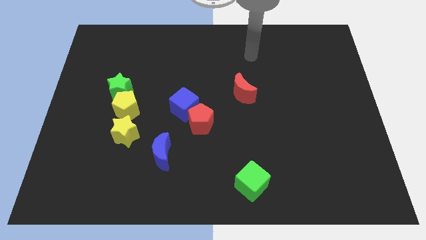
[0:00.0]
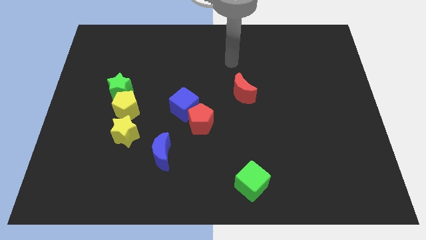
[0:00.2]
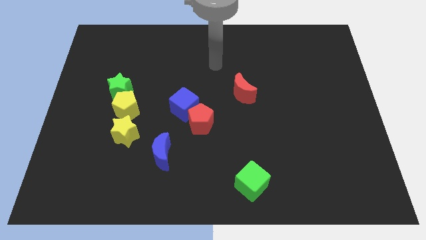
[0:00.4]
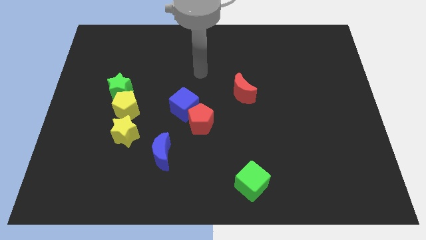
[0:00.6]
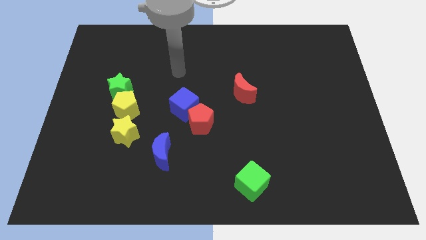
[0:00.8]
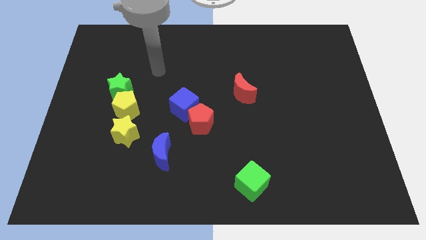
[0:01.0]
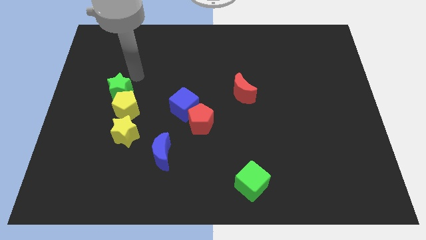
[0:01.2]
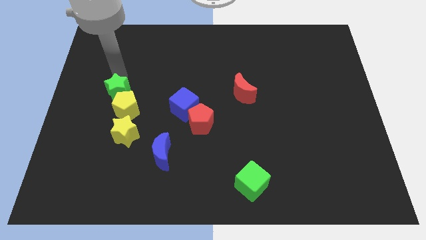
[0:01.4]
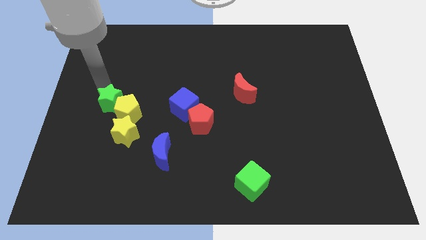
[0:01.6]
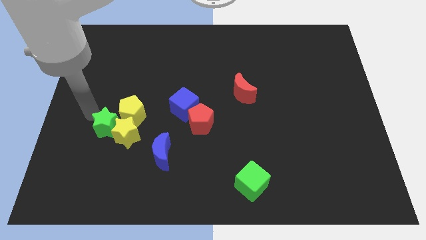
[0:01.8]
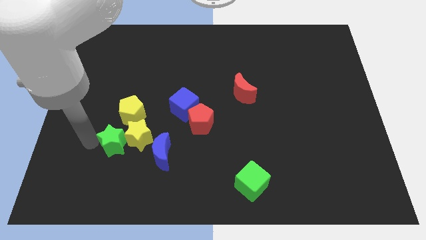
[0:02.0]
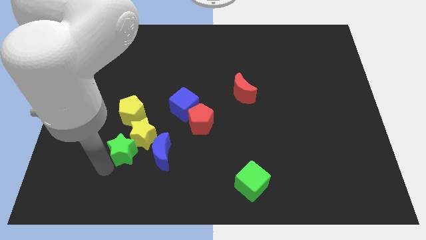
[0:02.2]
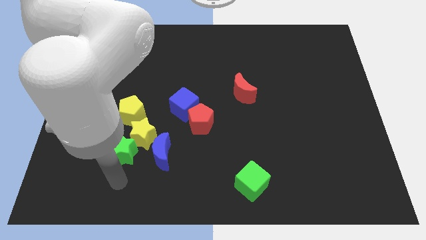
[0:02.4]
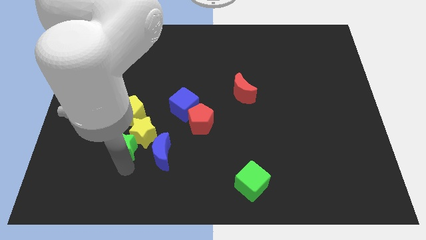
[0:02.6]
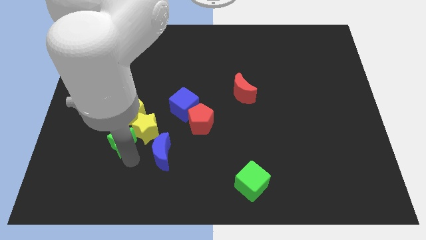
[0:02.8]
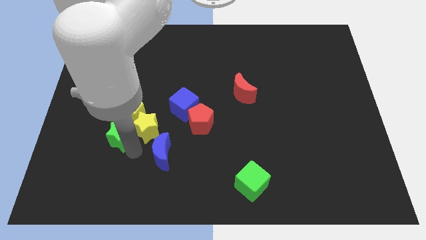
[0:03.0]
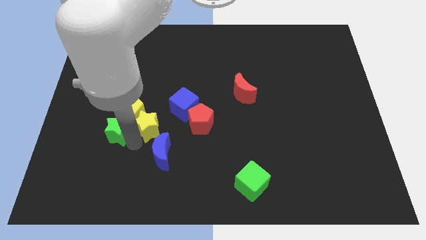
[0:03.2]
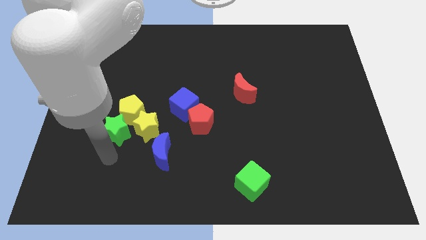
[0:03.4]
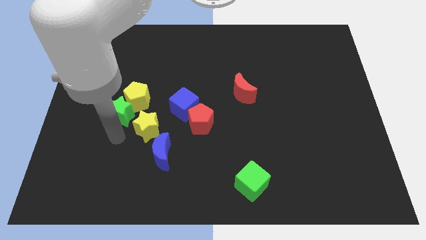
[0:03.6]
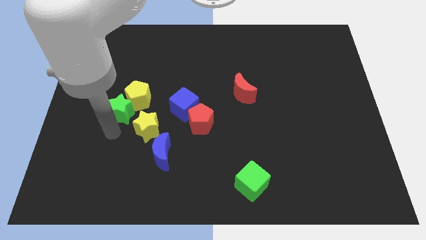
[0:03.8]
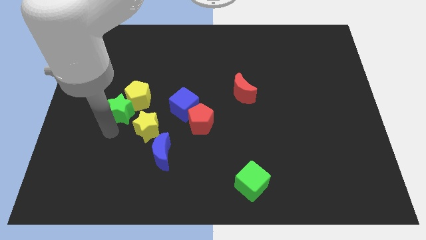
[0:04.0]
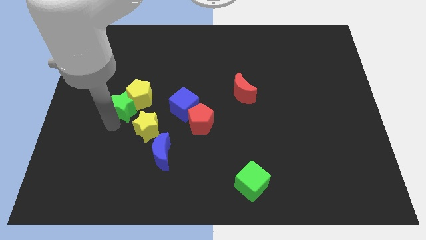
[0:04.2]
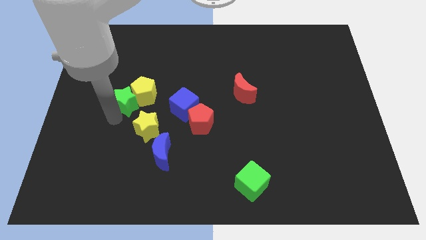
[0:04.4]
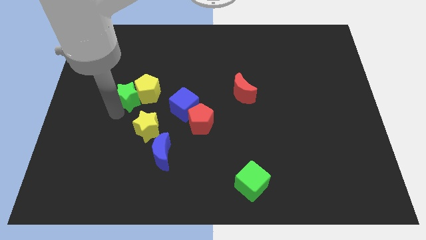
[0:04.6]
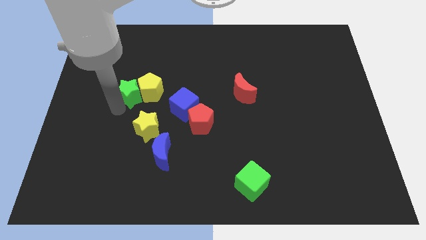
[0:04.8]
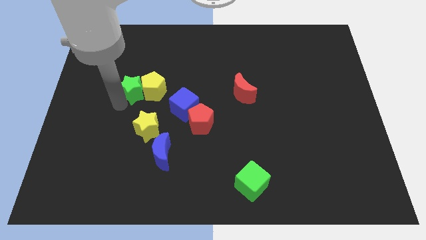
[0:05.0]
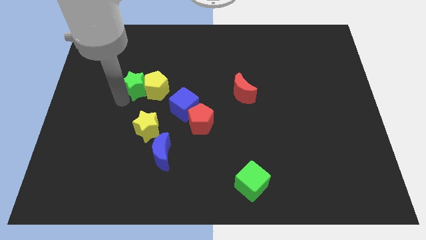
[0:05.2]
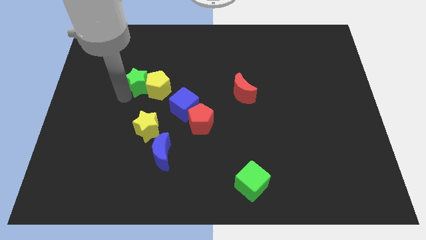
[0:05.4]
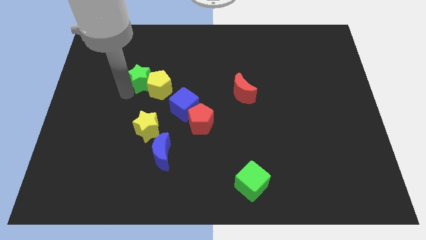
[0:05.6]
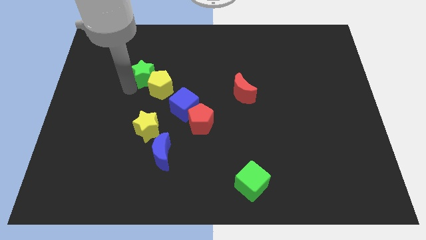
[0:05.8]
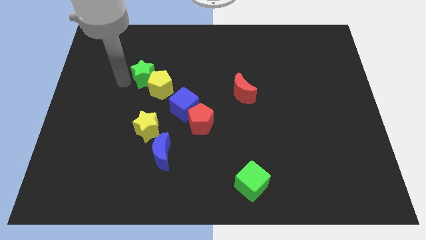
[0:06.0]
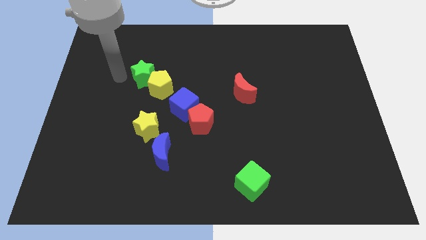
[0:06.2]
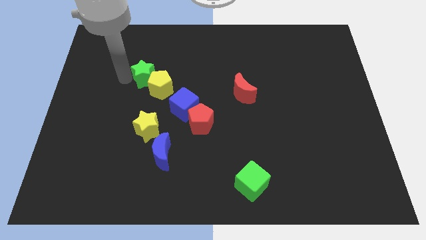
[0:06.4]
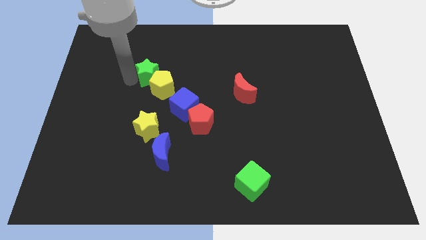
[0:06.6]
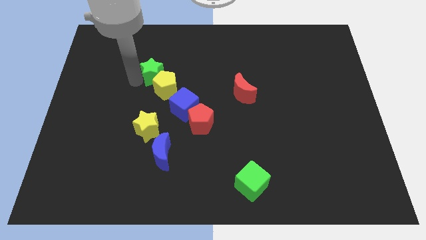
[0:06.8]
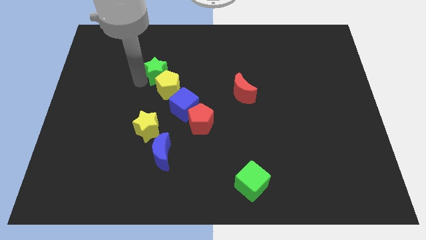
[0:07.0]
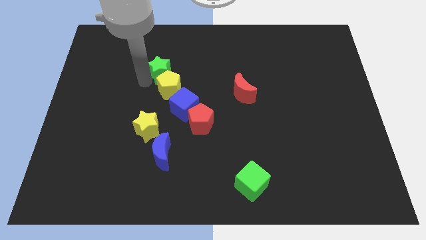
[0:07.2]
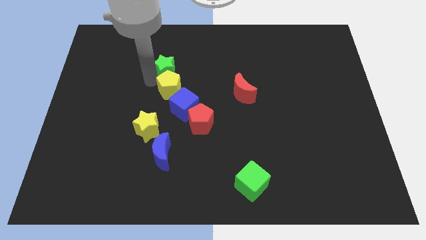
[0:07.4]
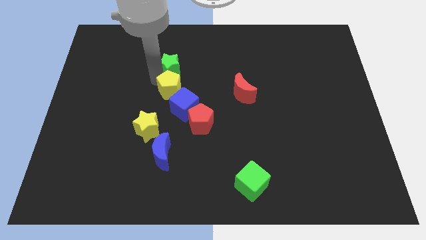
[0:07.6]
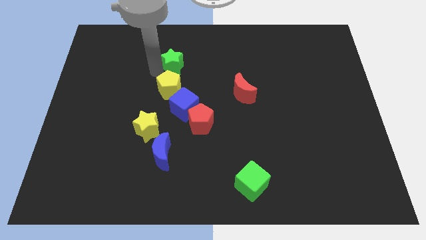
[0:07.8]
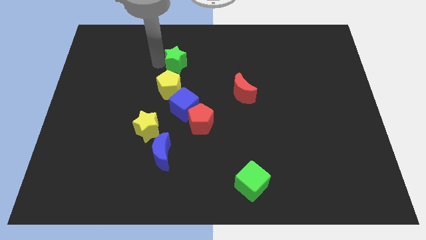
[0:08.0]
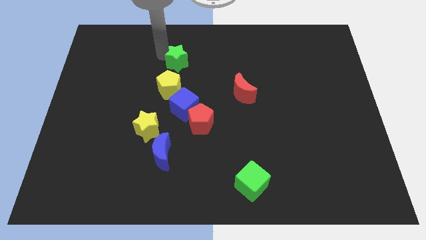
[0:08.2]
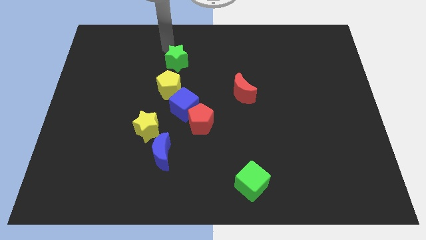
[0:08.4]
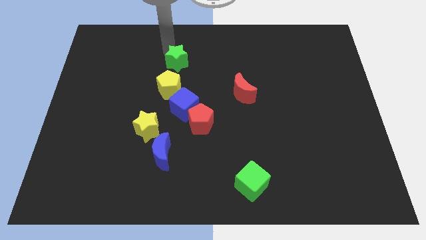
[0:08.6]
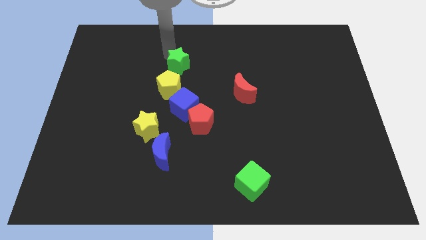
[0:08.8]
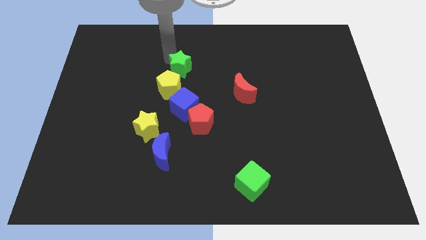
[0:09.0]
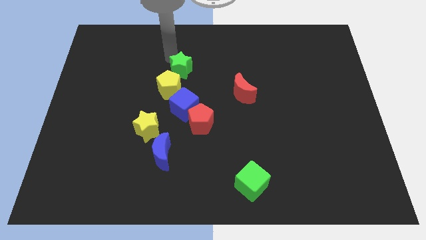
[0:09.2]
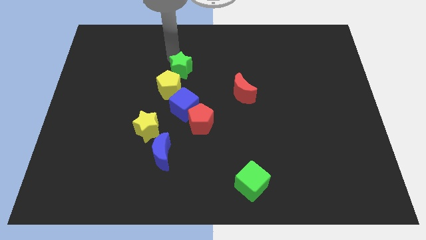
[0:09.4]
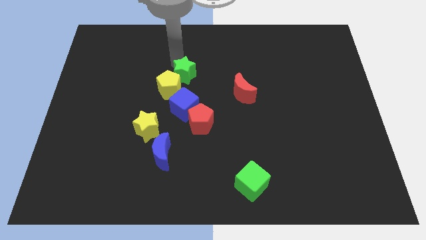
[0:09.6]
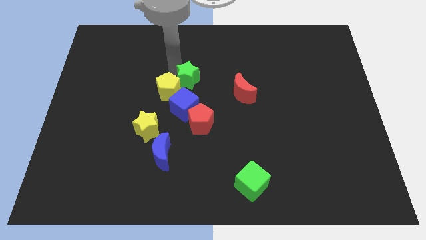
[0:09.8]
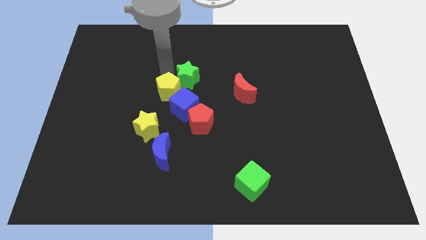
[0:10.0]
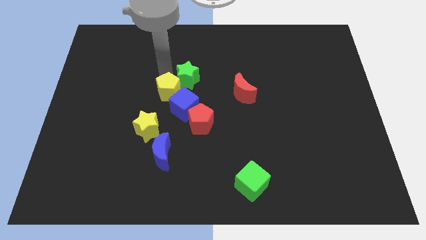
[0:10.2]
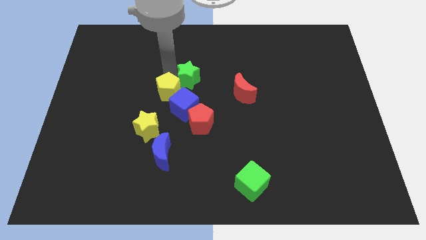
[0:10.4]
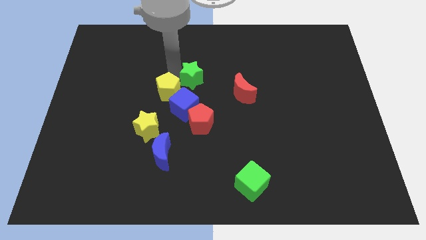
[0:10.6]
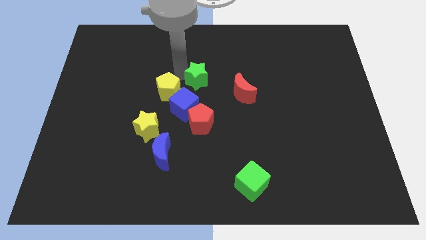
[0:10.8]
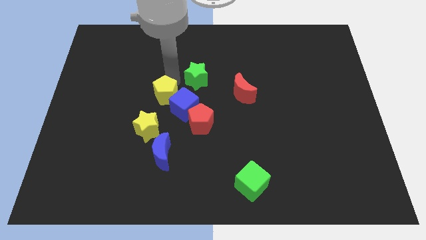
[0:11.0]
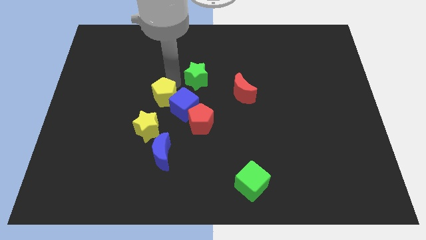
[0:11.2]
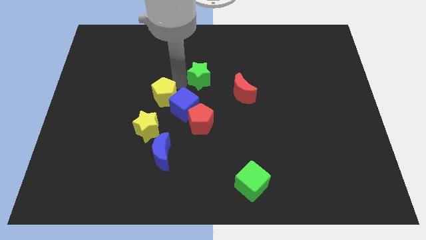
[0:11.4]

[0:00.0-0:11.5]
put the green star diagonally up and to the left of the red moon

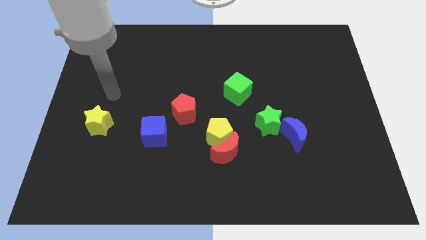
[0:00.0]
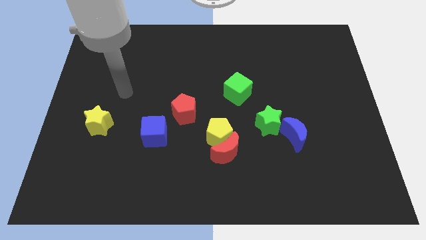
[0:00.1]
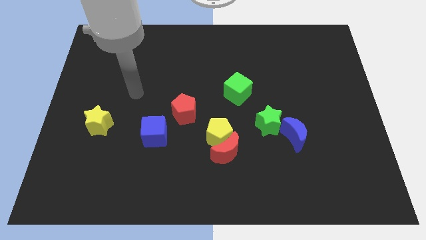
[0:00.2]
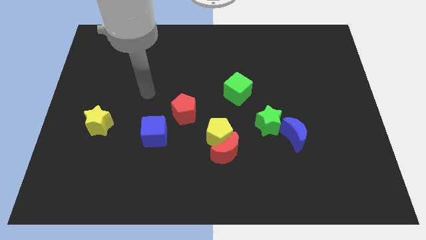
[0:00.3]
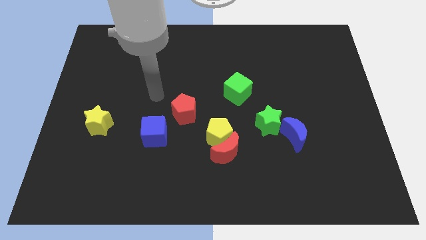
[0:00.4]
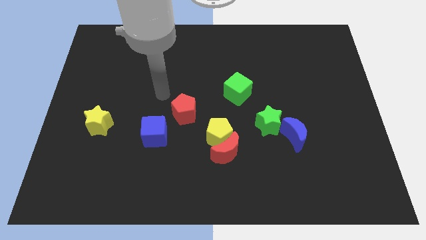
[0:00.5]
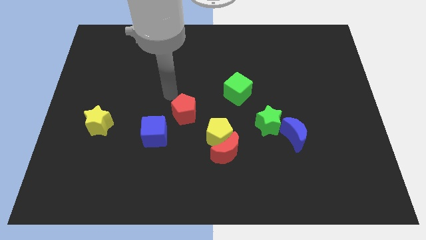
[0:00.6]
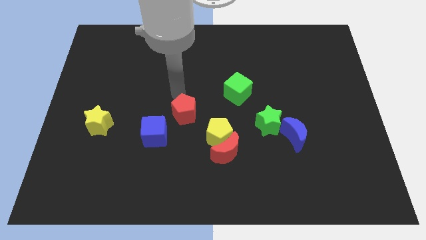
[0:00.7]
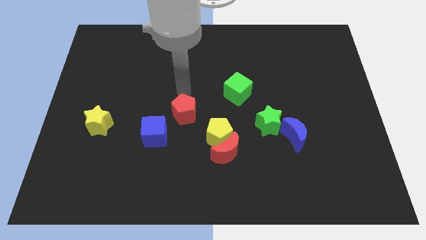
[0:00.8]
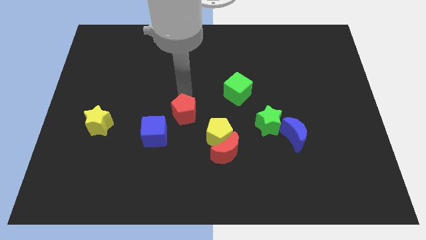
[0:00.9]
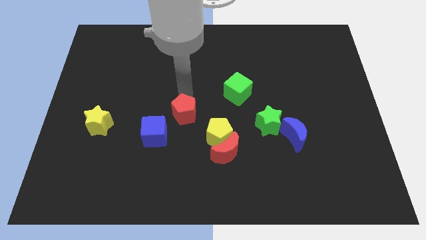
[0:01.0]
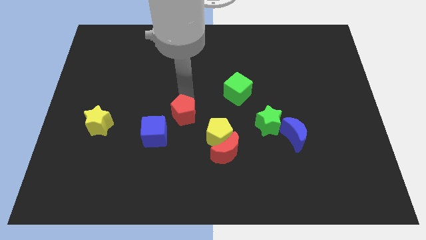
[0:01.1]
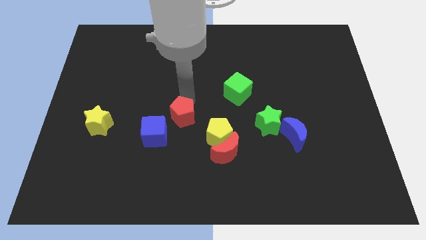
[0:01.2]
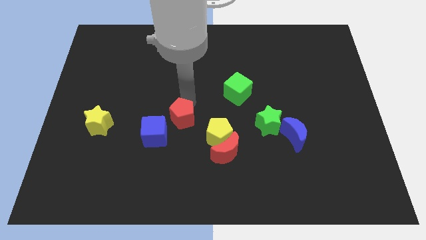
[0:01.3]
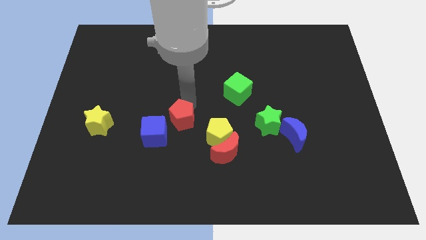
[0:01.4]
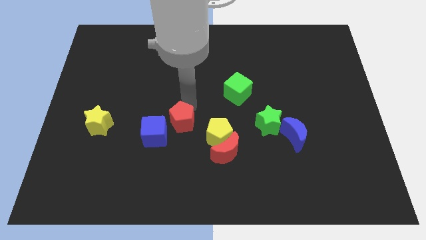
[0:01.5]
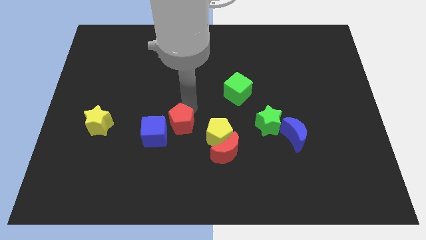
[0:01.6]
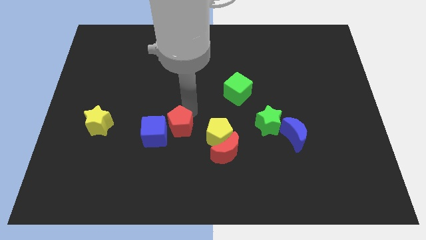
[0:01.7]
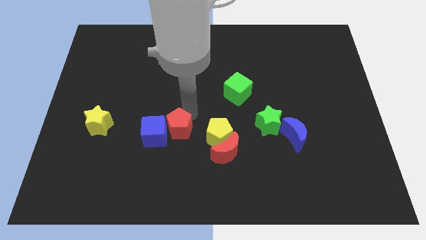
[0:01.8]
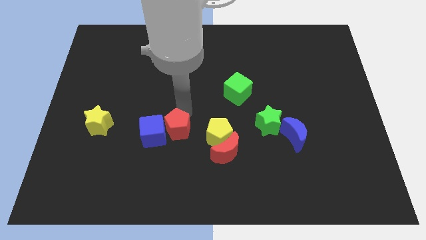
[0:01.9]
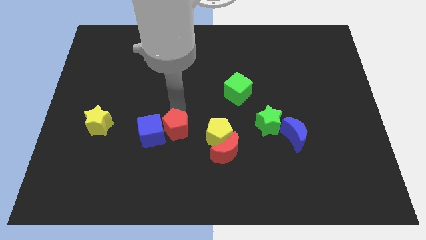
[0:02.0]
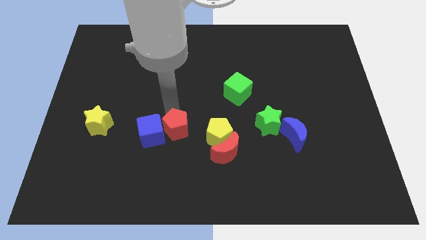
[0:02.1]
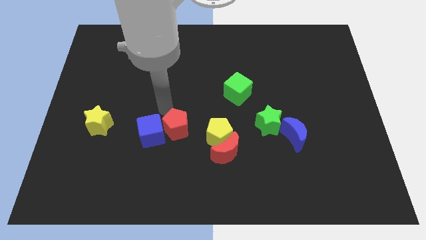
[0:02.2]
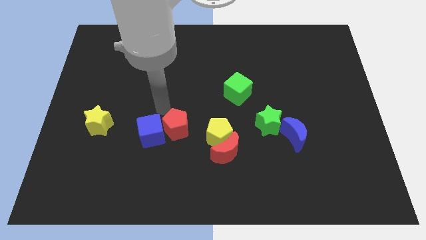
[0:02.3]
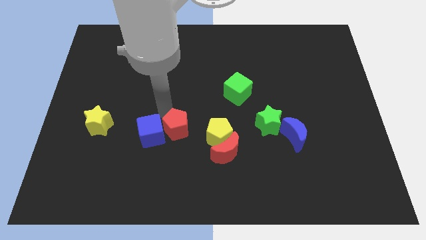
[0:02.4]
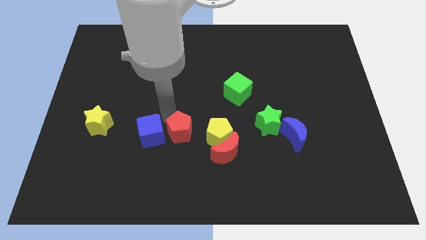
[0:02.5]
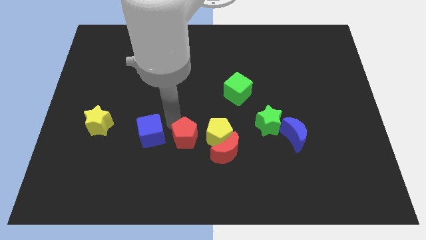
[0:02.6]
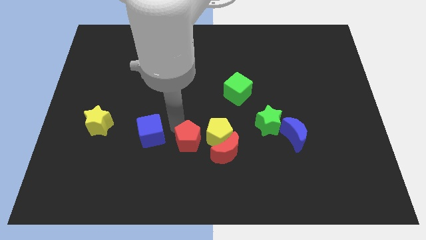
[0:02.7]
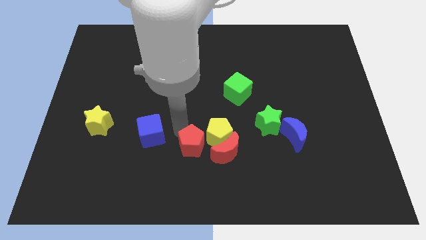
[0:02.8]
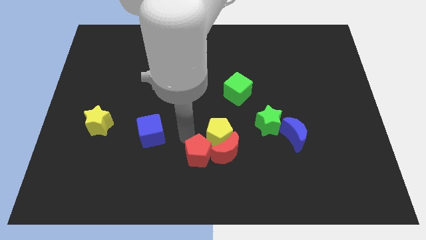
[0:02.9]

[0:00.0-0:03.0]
move the red pentagon to the bottom left of the red moon
